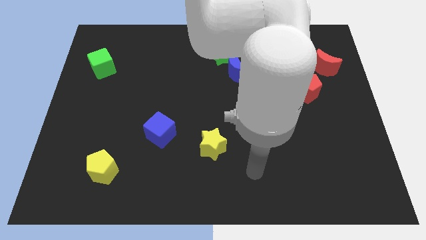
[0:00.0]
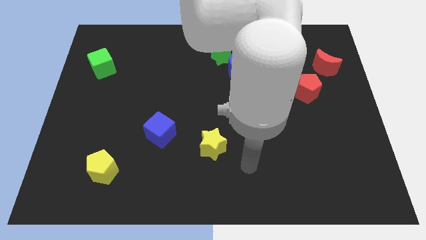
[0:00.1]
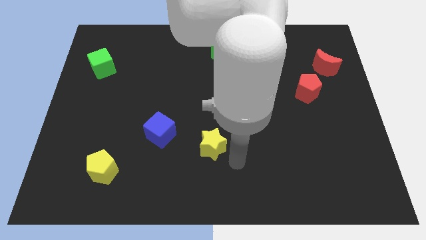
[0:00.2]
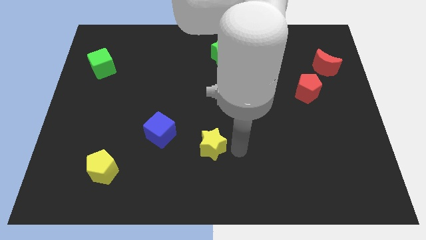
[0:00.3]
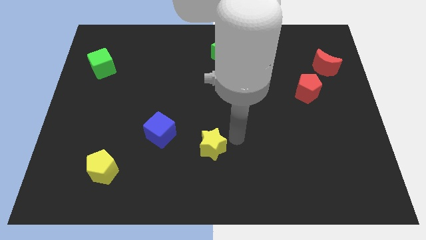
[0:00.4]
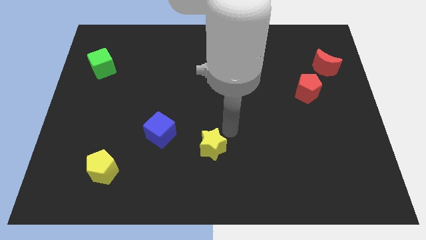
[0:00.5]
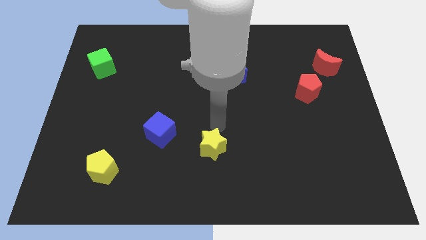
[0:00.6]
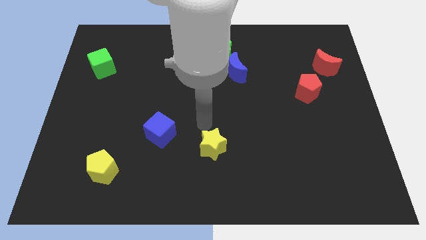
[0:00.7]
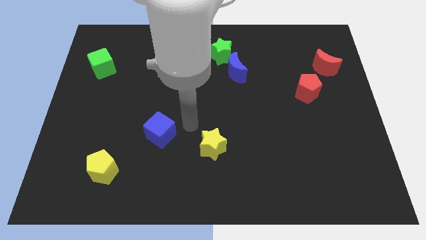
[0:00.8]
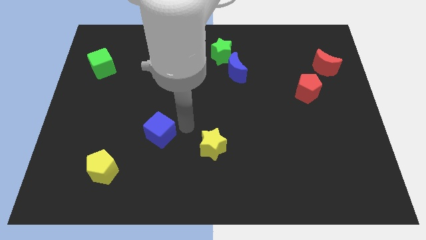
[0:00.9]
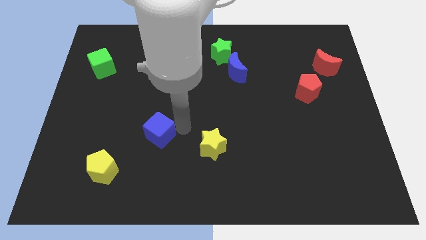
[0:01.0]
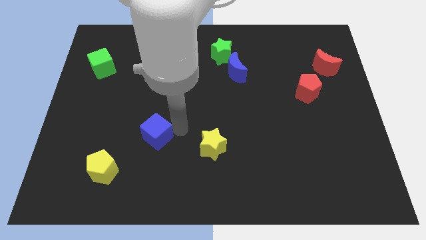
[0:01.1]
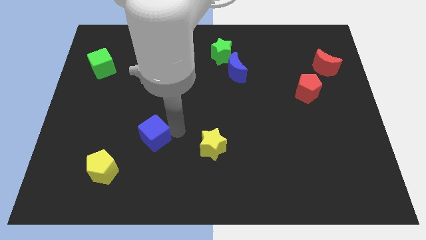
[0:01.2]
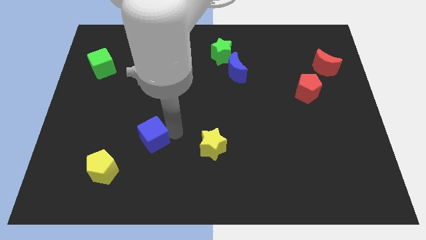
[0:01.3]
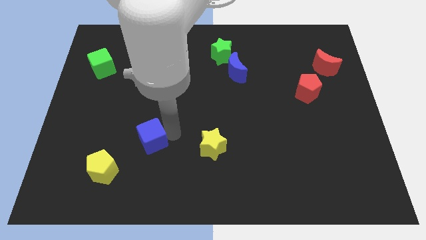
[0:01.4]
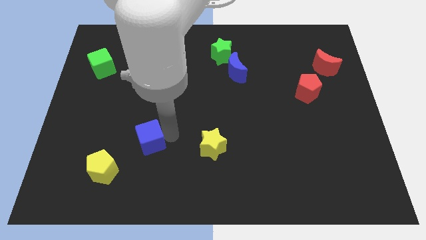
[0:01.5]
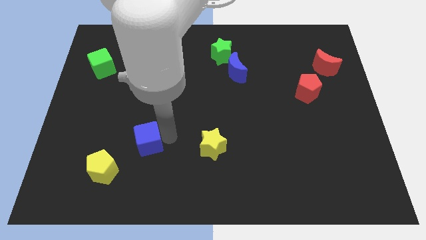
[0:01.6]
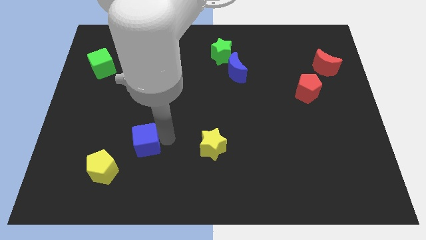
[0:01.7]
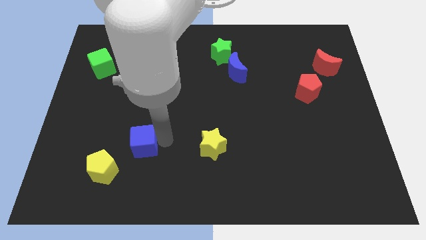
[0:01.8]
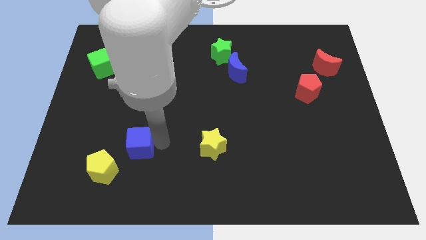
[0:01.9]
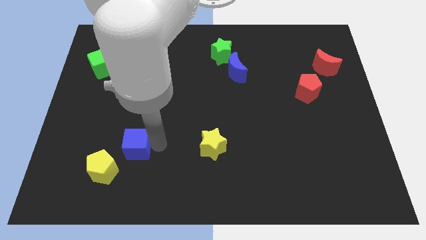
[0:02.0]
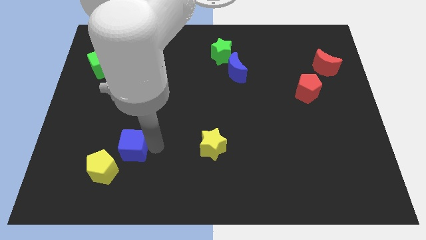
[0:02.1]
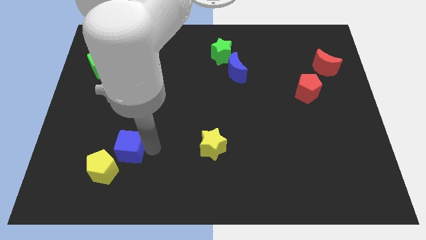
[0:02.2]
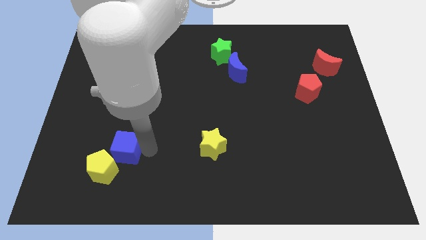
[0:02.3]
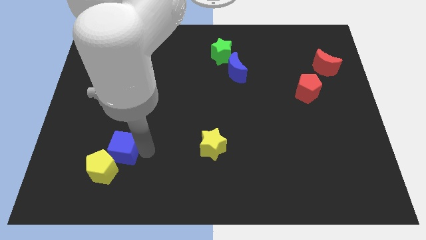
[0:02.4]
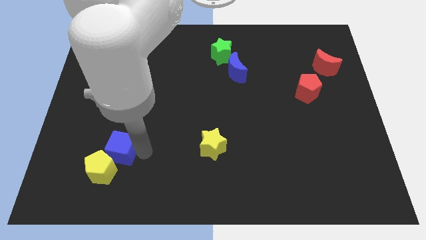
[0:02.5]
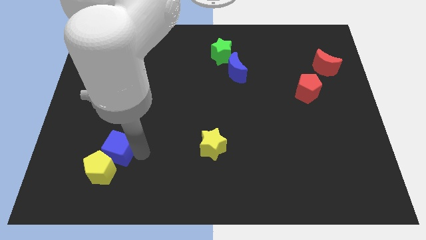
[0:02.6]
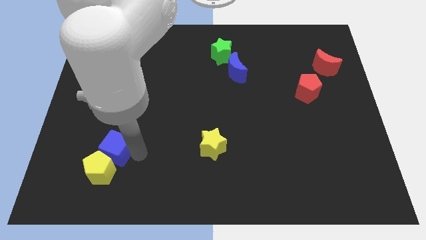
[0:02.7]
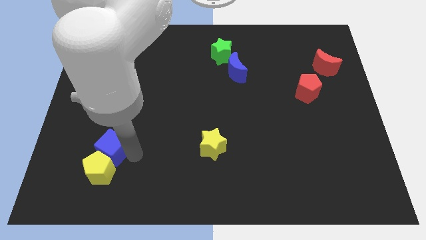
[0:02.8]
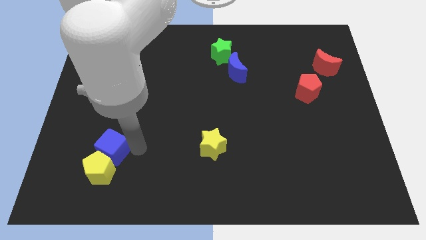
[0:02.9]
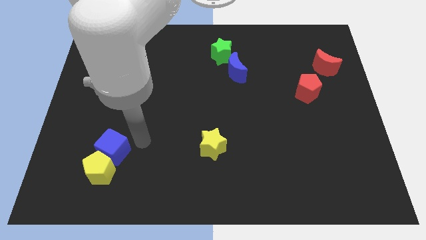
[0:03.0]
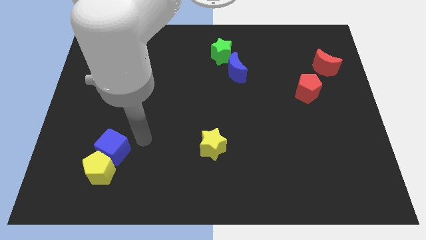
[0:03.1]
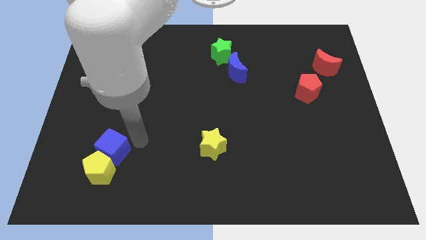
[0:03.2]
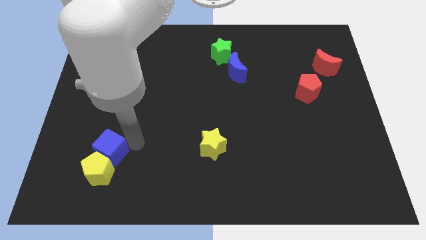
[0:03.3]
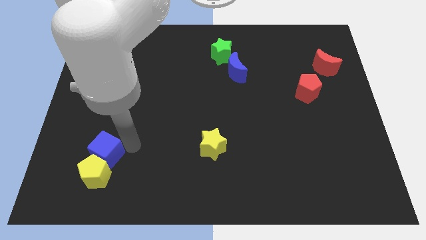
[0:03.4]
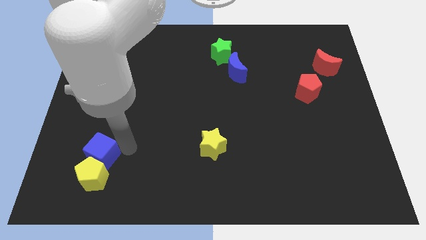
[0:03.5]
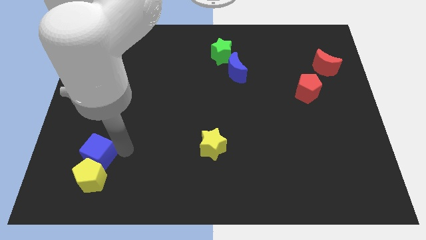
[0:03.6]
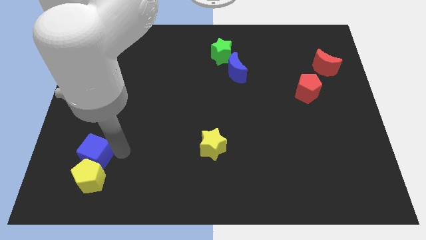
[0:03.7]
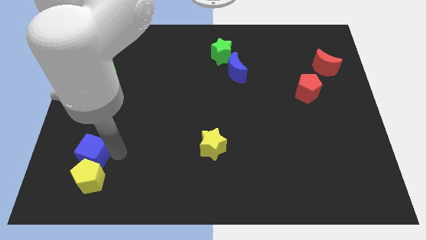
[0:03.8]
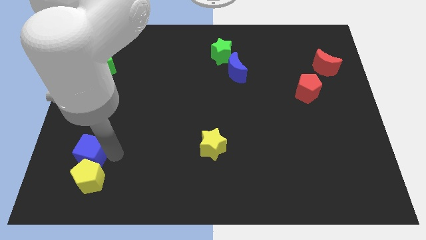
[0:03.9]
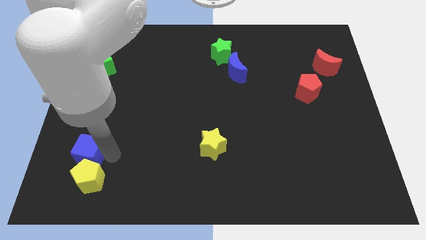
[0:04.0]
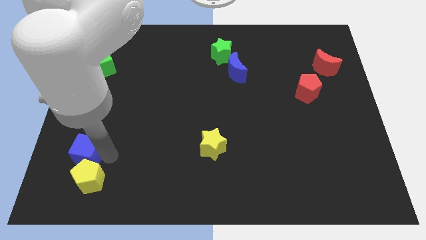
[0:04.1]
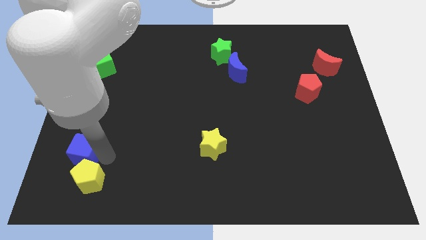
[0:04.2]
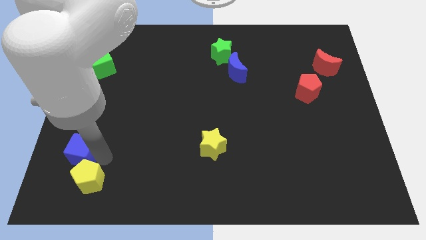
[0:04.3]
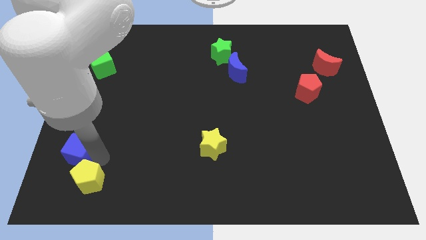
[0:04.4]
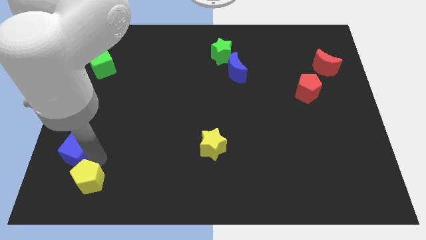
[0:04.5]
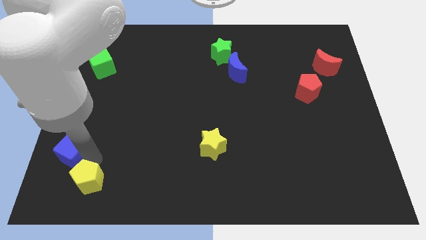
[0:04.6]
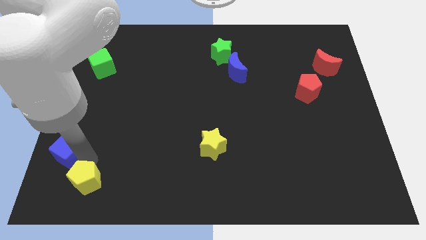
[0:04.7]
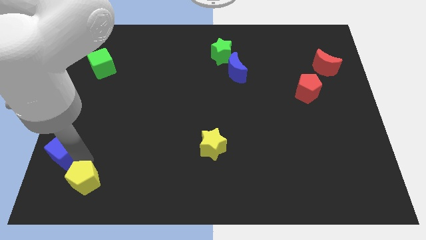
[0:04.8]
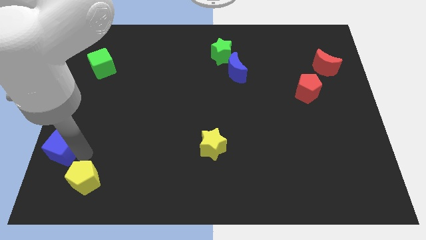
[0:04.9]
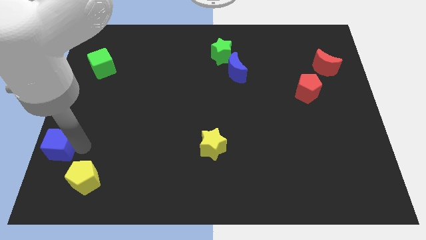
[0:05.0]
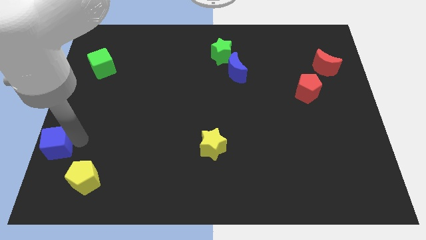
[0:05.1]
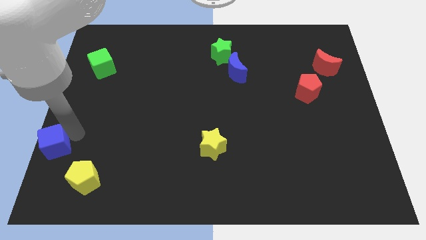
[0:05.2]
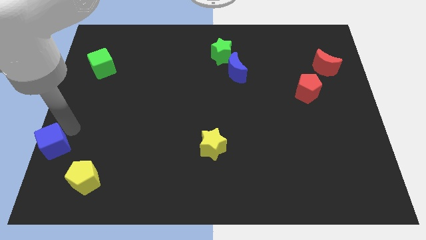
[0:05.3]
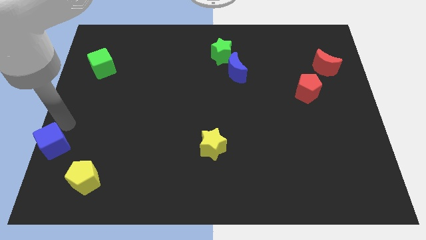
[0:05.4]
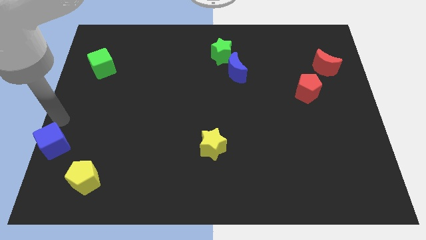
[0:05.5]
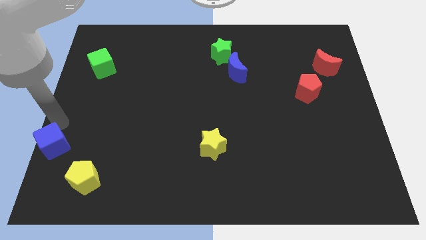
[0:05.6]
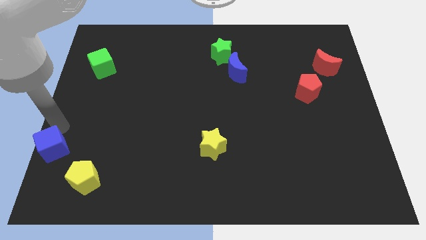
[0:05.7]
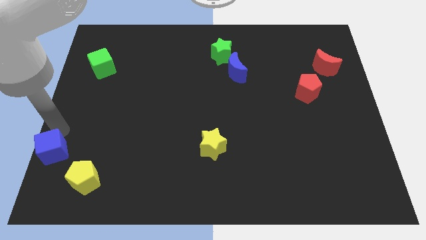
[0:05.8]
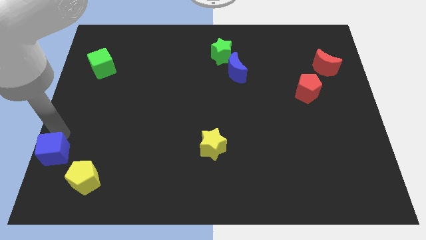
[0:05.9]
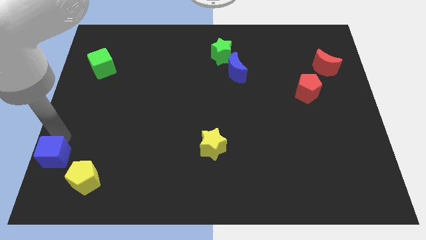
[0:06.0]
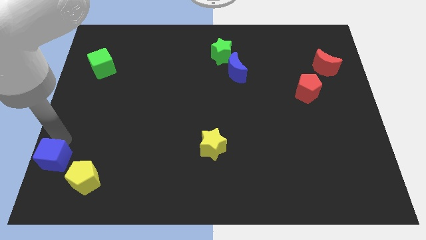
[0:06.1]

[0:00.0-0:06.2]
put the blue cube to the bottom left corner
